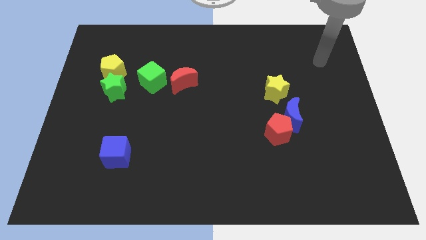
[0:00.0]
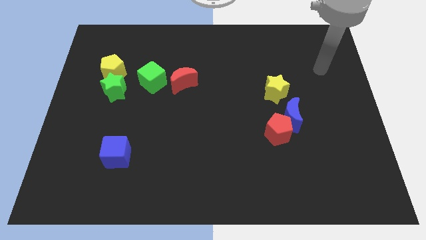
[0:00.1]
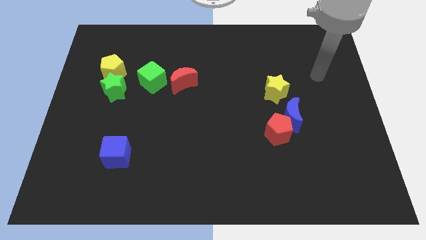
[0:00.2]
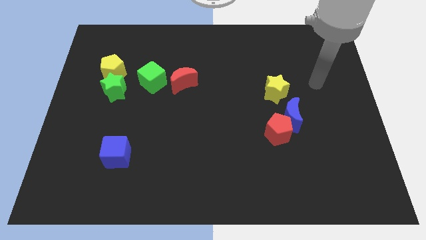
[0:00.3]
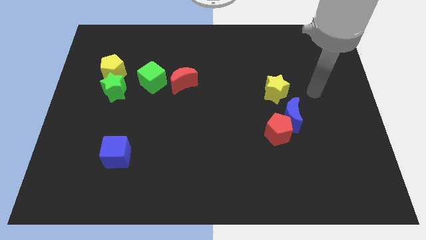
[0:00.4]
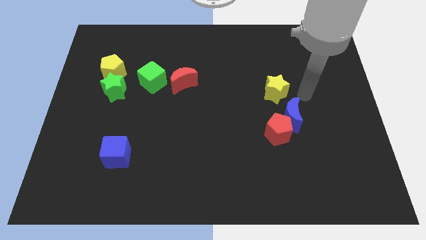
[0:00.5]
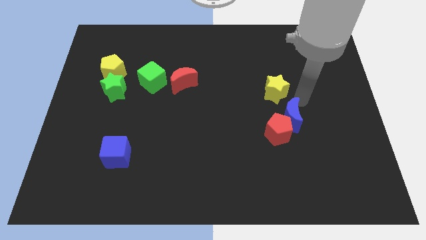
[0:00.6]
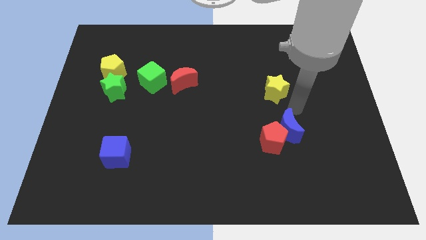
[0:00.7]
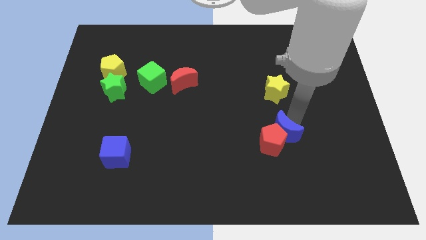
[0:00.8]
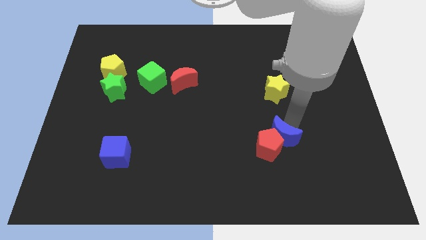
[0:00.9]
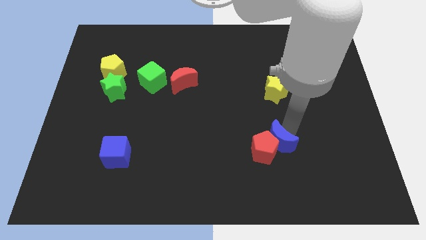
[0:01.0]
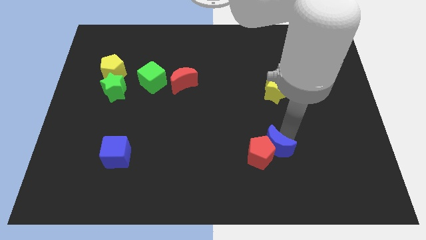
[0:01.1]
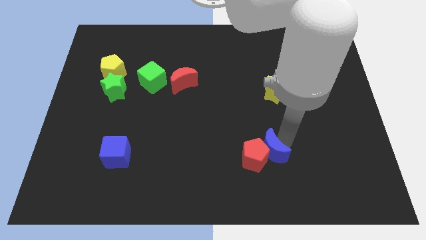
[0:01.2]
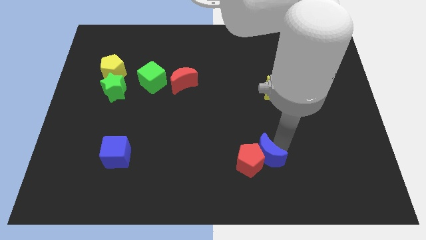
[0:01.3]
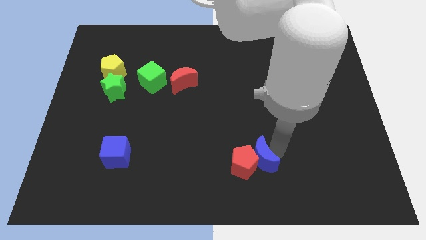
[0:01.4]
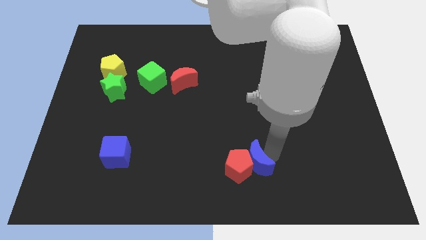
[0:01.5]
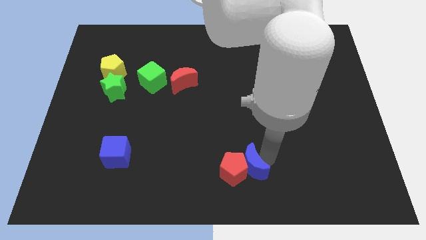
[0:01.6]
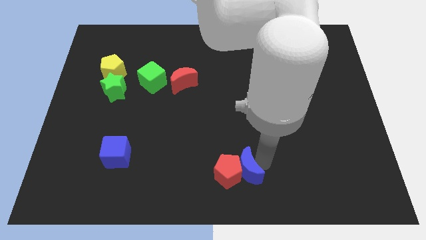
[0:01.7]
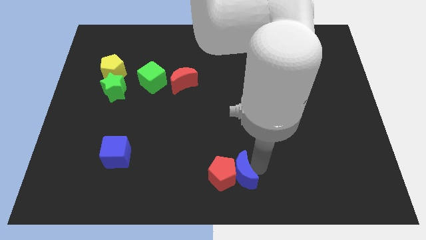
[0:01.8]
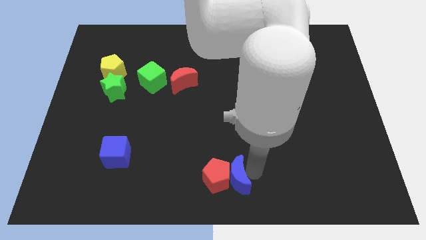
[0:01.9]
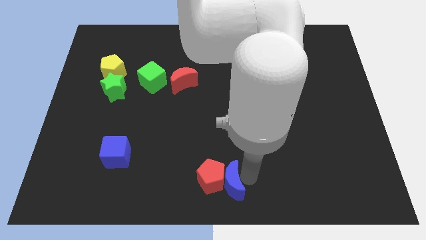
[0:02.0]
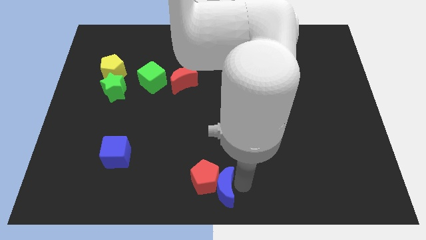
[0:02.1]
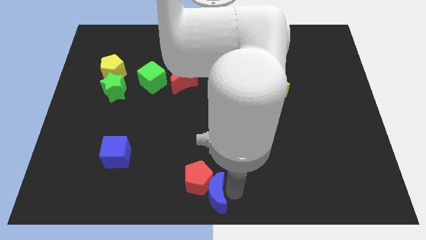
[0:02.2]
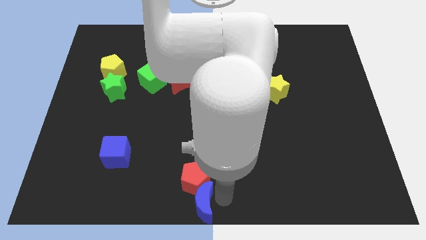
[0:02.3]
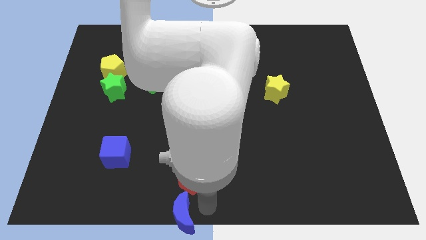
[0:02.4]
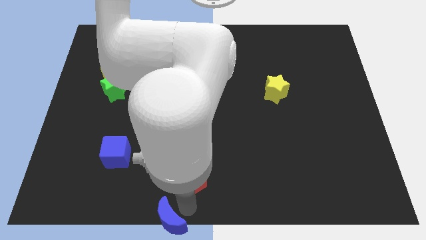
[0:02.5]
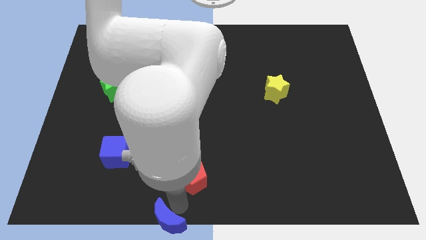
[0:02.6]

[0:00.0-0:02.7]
separate the red pentagon from the blue moon

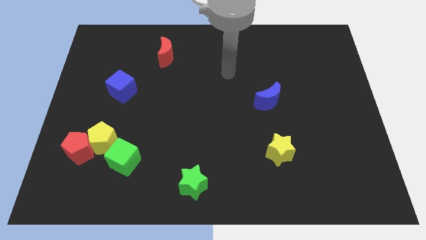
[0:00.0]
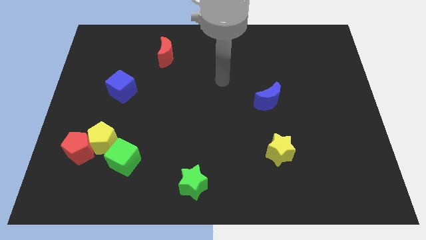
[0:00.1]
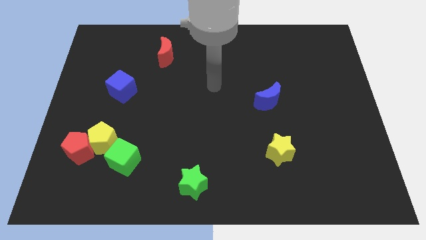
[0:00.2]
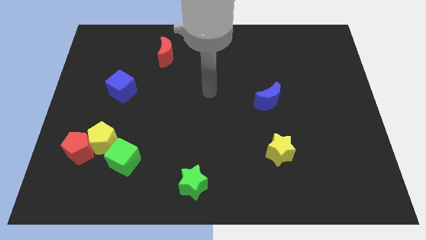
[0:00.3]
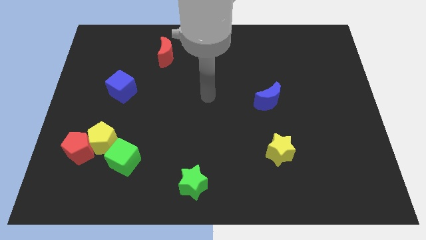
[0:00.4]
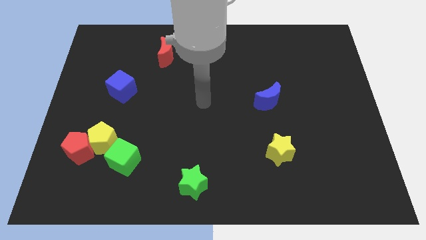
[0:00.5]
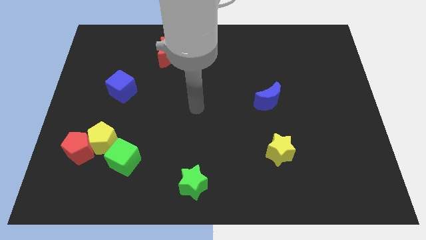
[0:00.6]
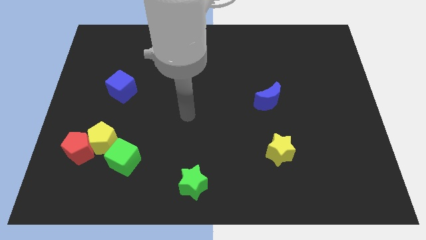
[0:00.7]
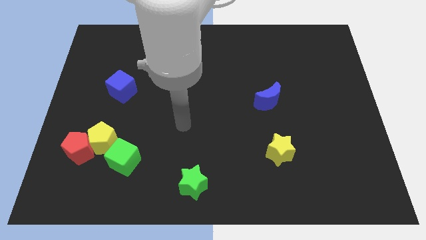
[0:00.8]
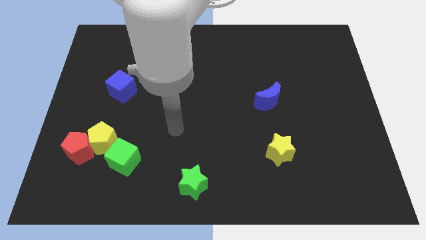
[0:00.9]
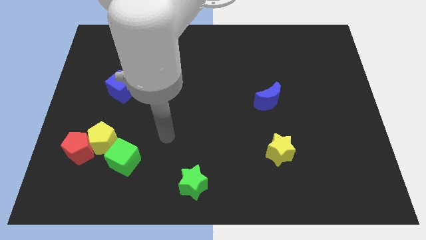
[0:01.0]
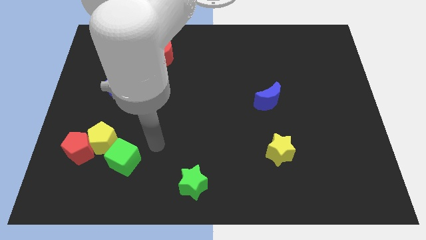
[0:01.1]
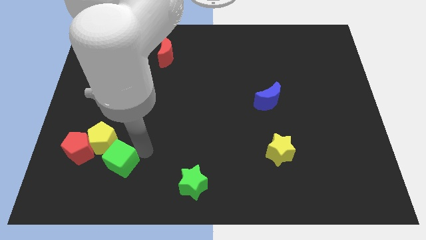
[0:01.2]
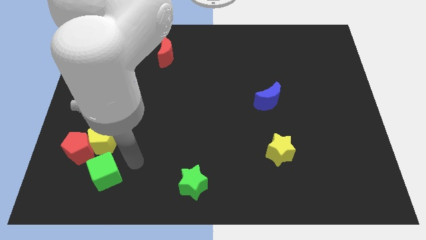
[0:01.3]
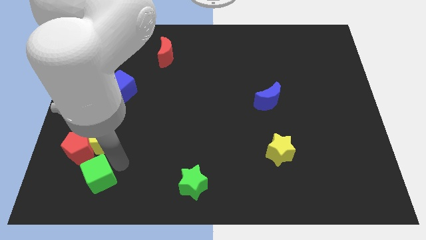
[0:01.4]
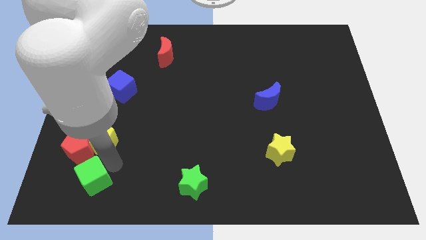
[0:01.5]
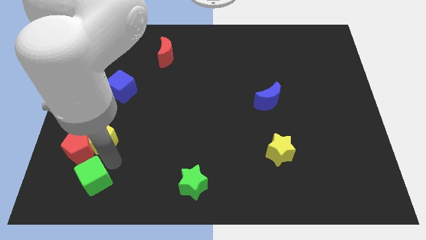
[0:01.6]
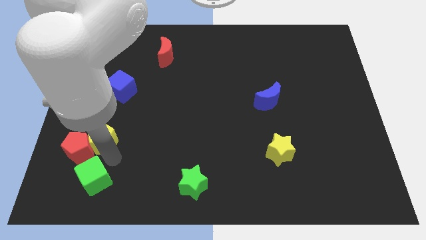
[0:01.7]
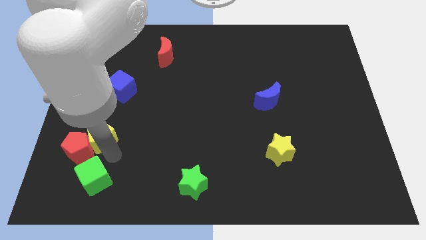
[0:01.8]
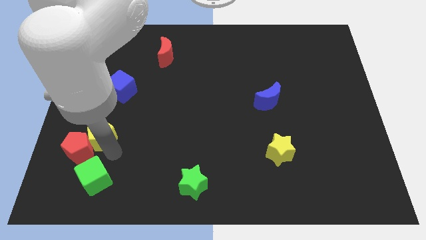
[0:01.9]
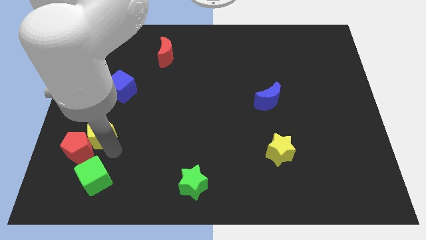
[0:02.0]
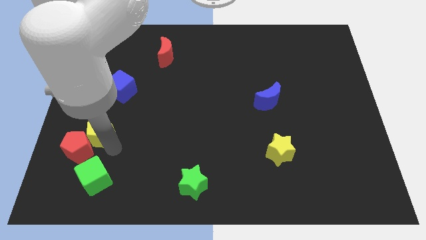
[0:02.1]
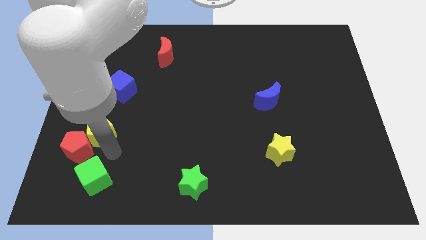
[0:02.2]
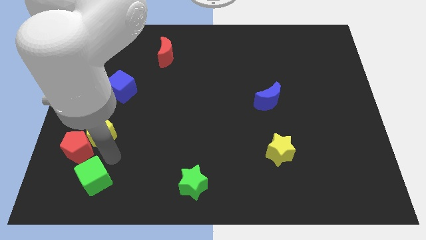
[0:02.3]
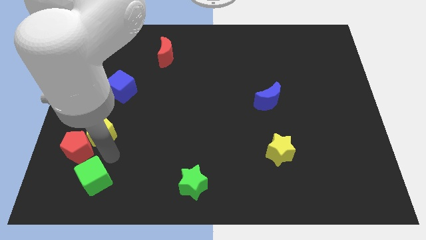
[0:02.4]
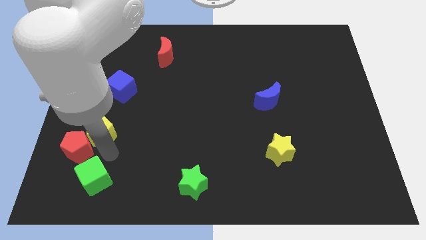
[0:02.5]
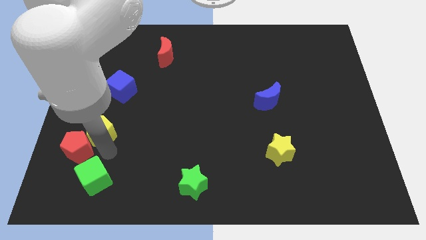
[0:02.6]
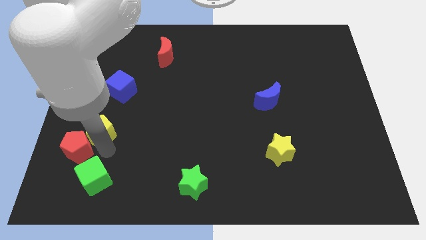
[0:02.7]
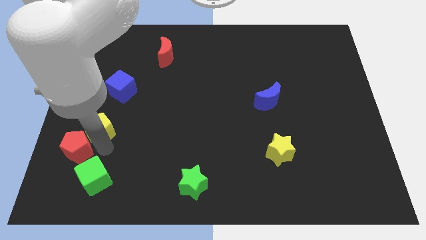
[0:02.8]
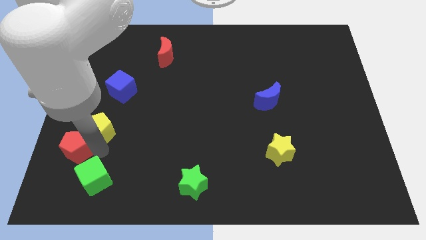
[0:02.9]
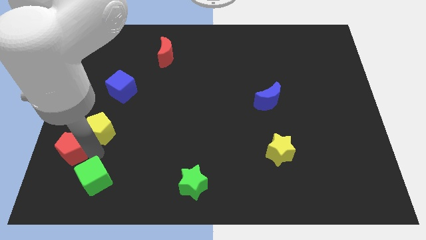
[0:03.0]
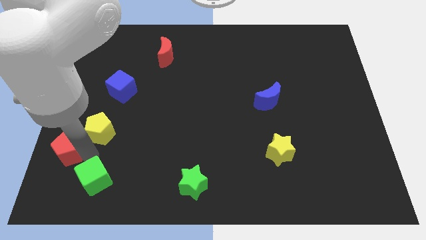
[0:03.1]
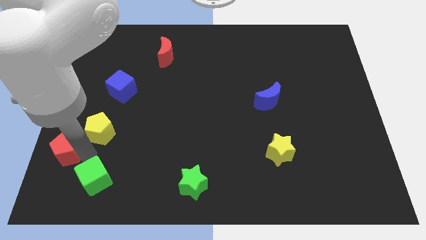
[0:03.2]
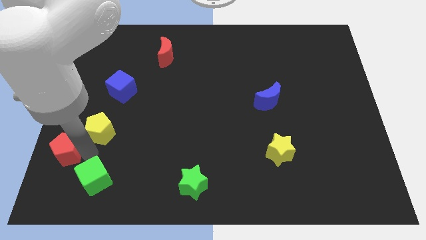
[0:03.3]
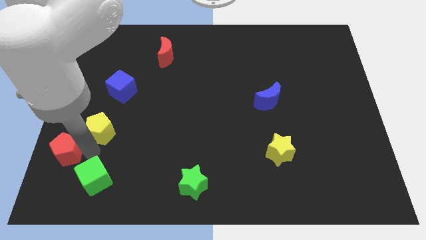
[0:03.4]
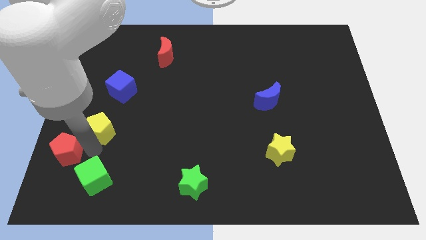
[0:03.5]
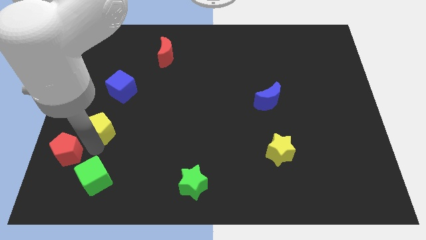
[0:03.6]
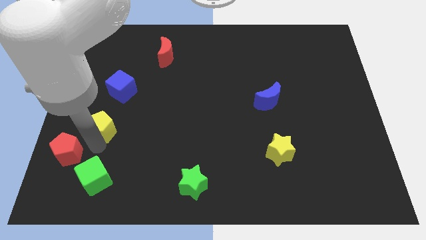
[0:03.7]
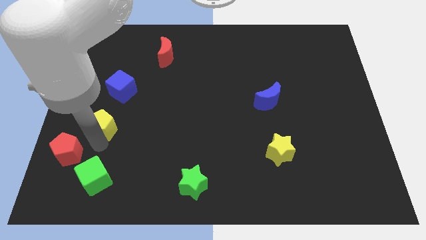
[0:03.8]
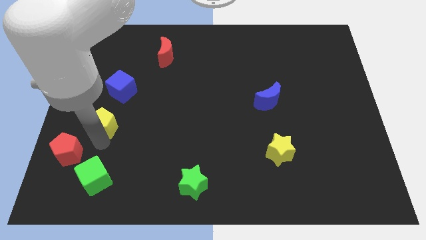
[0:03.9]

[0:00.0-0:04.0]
separate the yellow pentagon from the red pentagon and green cube

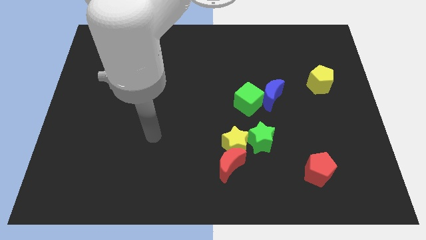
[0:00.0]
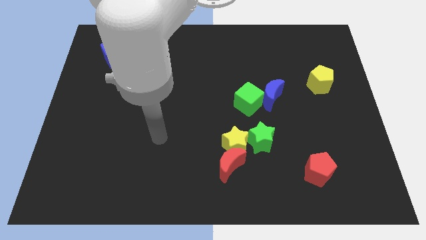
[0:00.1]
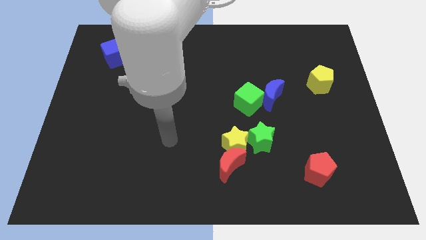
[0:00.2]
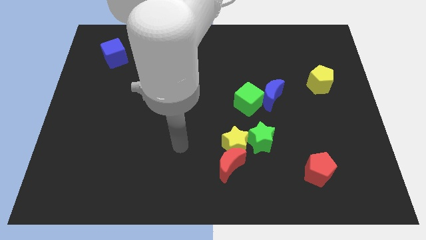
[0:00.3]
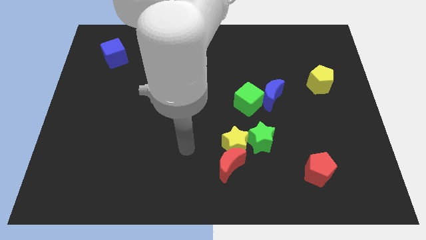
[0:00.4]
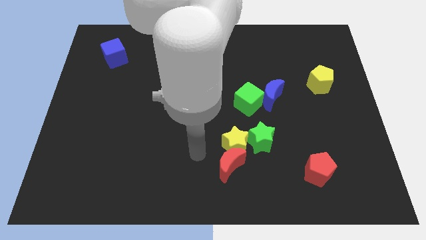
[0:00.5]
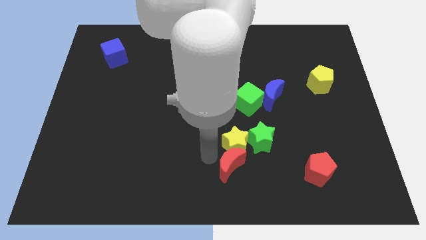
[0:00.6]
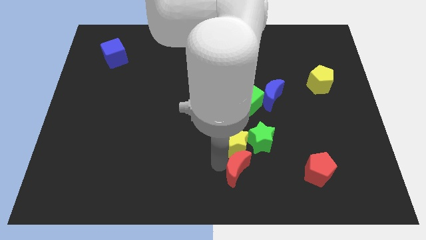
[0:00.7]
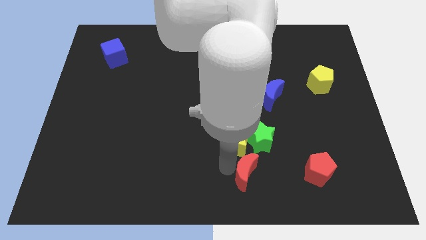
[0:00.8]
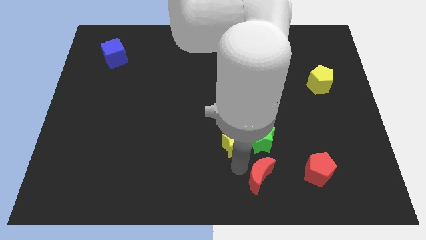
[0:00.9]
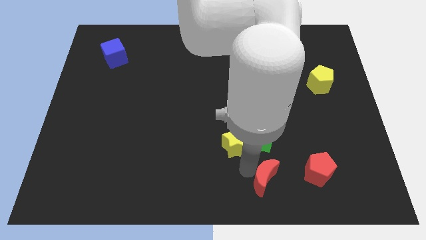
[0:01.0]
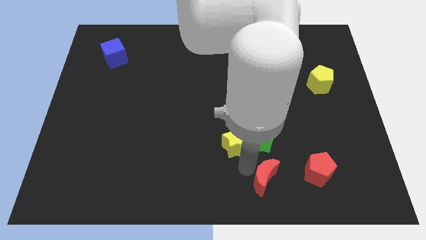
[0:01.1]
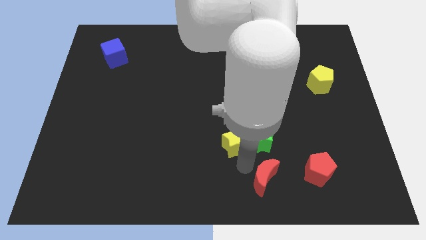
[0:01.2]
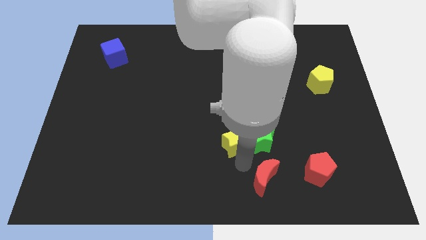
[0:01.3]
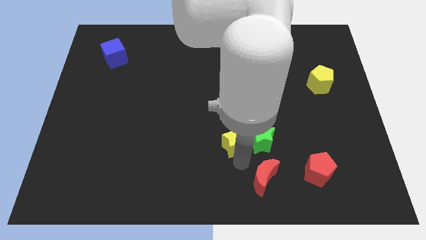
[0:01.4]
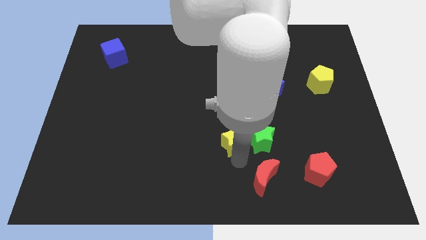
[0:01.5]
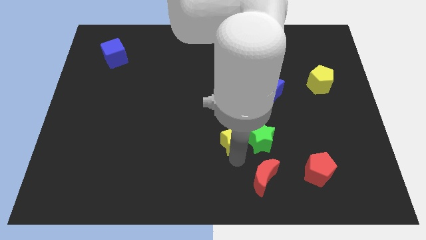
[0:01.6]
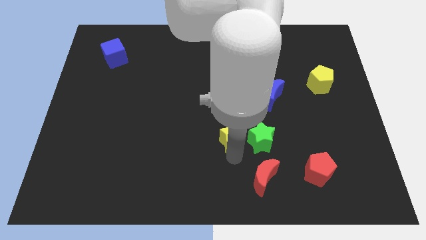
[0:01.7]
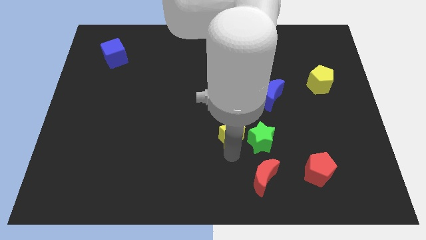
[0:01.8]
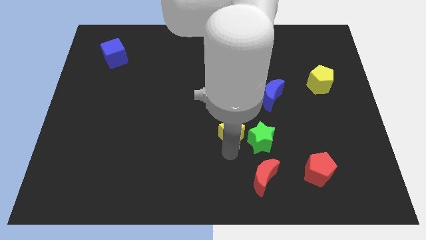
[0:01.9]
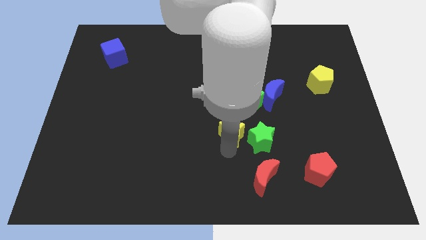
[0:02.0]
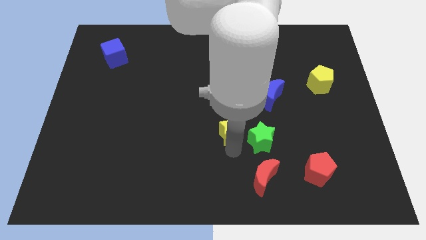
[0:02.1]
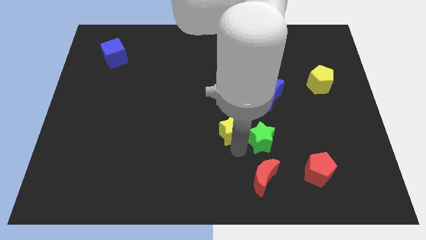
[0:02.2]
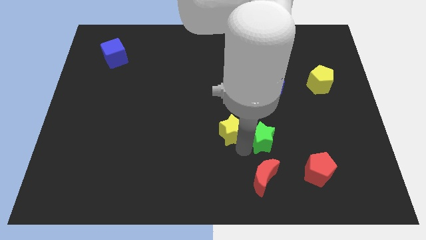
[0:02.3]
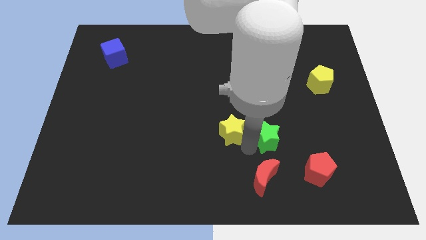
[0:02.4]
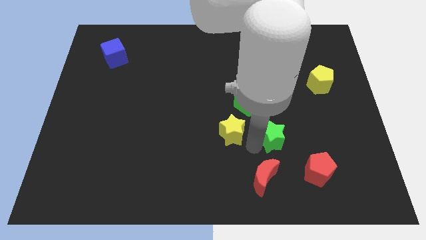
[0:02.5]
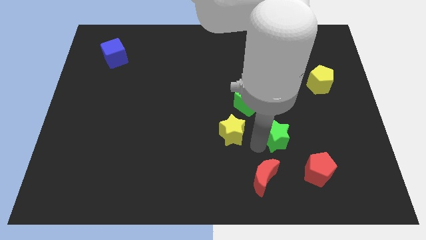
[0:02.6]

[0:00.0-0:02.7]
separate the yellow star from the red moon and green star
